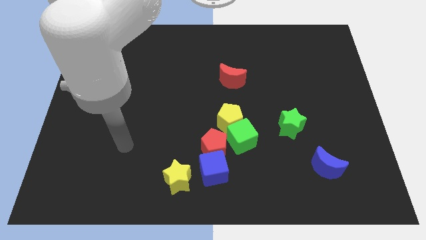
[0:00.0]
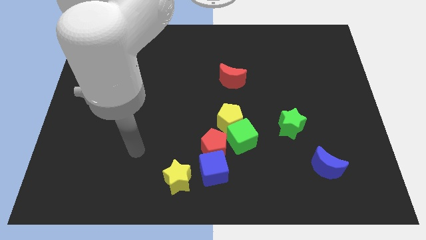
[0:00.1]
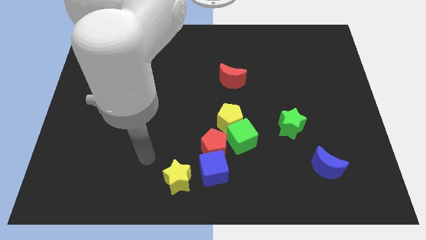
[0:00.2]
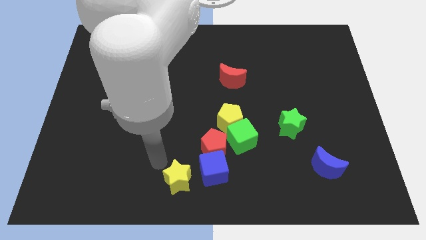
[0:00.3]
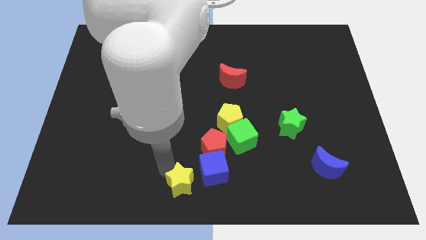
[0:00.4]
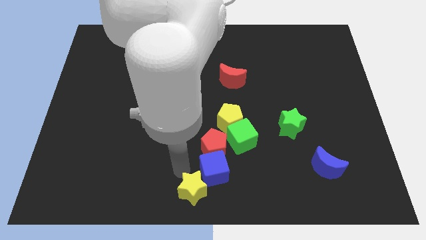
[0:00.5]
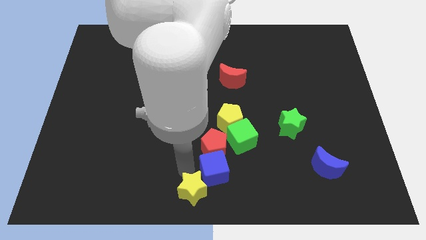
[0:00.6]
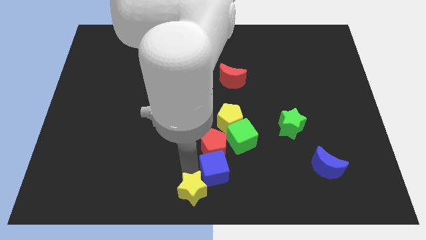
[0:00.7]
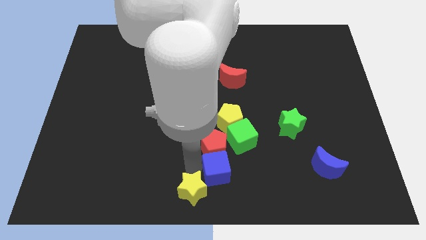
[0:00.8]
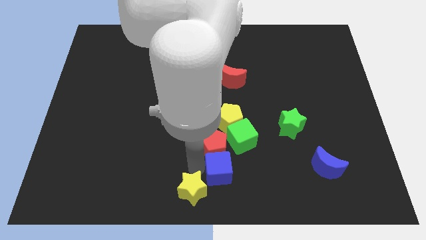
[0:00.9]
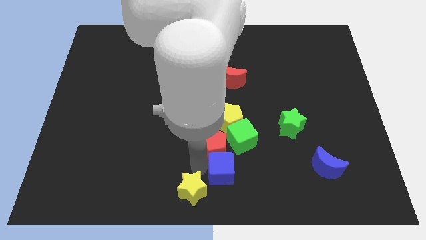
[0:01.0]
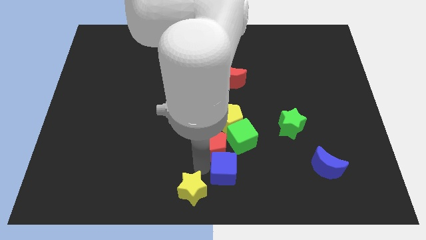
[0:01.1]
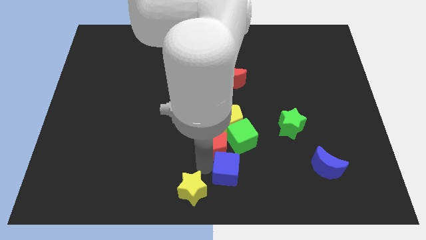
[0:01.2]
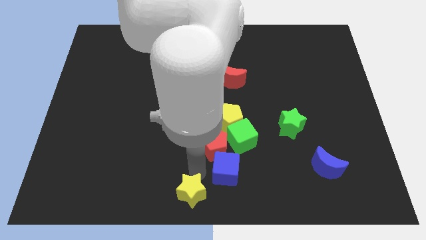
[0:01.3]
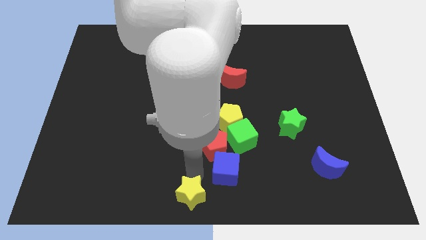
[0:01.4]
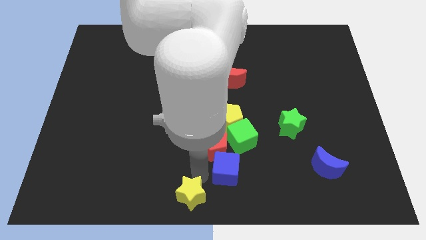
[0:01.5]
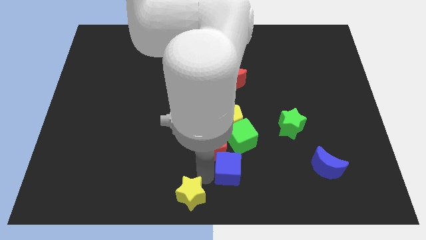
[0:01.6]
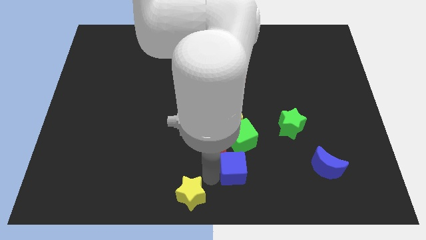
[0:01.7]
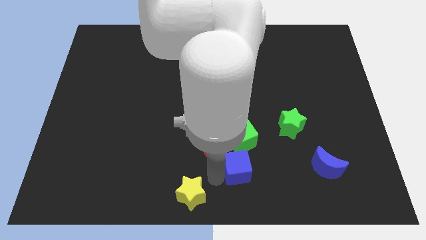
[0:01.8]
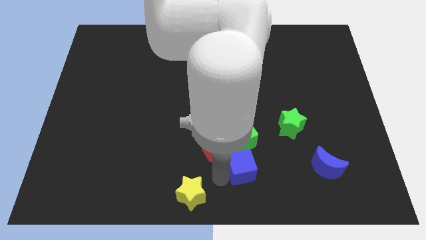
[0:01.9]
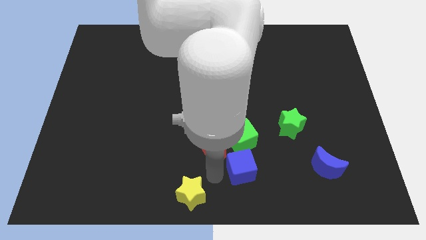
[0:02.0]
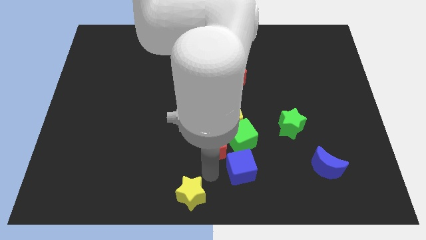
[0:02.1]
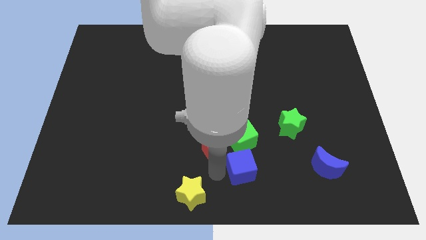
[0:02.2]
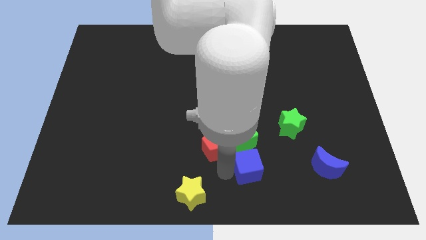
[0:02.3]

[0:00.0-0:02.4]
push the blue cube somewhat to the right

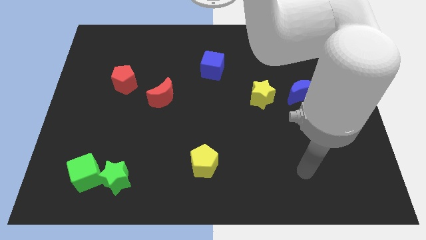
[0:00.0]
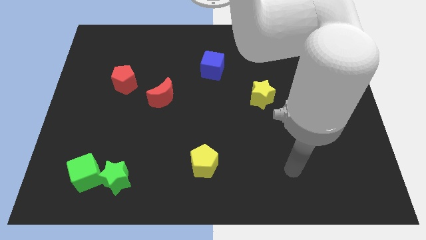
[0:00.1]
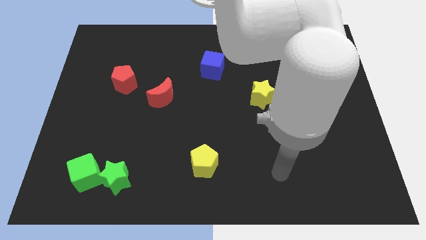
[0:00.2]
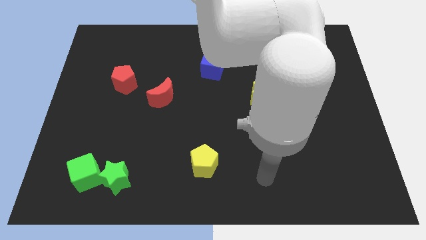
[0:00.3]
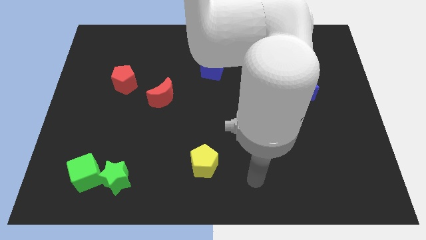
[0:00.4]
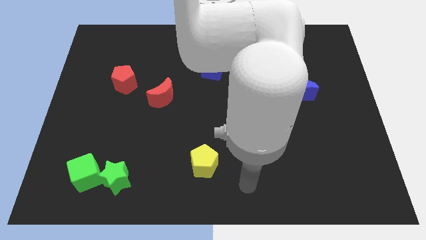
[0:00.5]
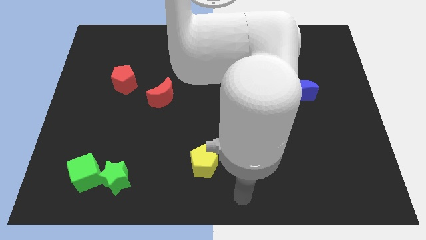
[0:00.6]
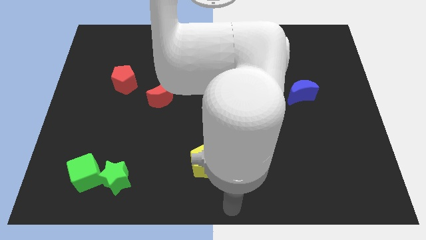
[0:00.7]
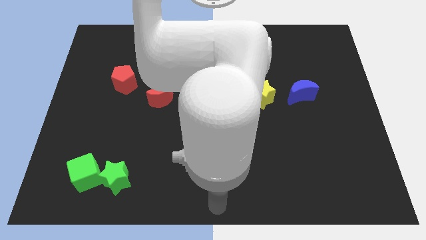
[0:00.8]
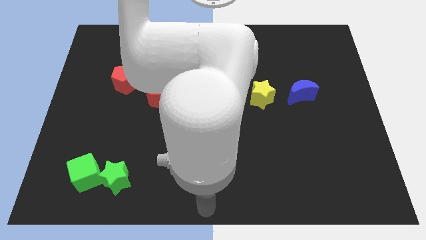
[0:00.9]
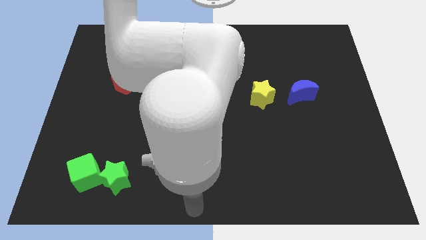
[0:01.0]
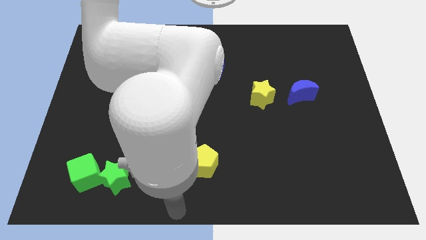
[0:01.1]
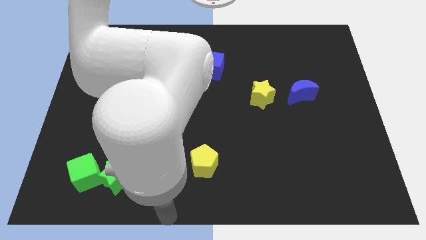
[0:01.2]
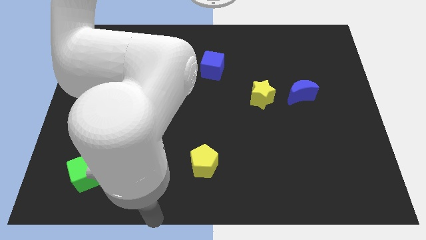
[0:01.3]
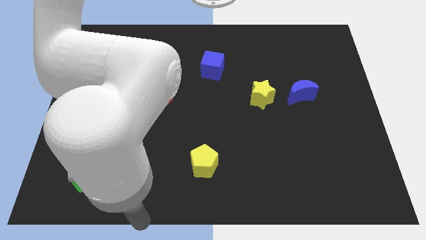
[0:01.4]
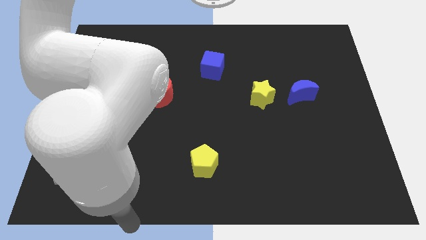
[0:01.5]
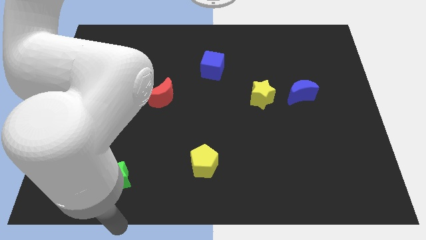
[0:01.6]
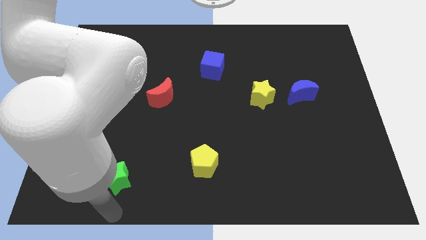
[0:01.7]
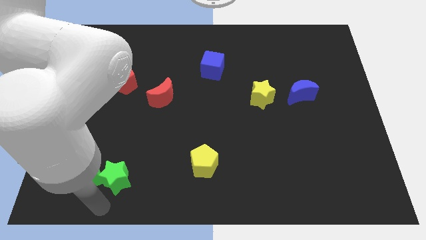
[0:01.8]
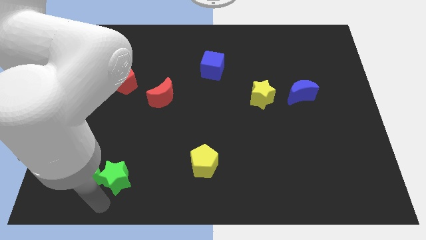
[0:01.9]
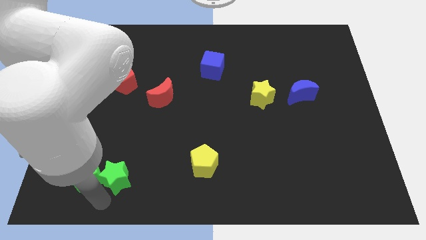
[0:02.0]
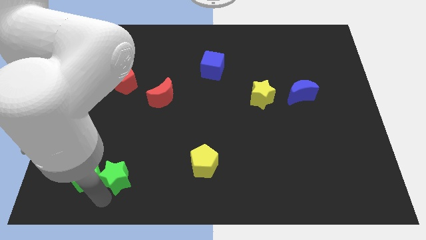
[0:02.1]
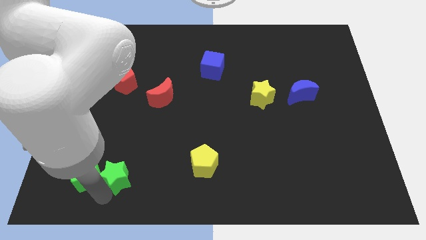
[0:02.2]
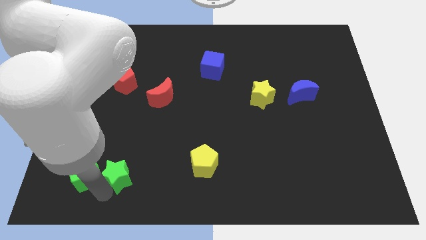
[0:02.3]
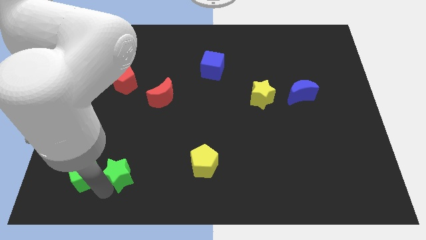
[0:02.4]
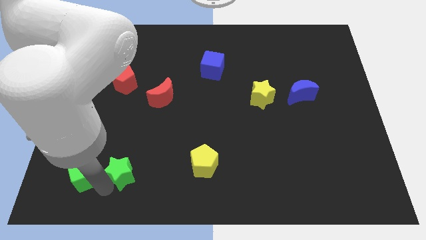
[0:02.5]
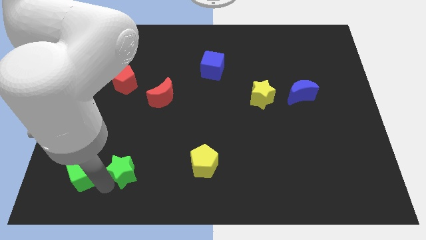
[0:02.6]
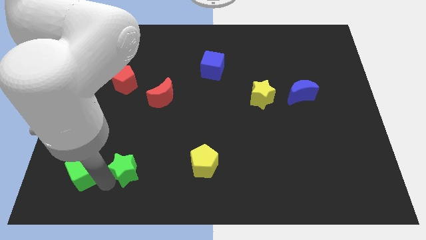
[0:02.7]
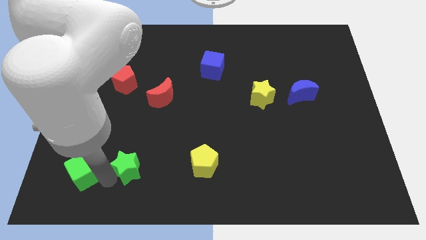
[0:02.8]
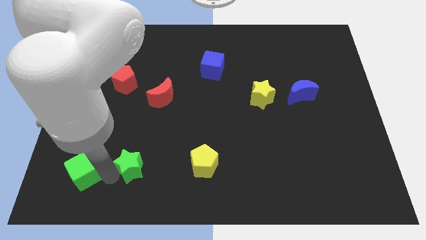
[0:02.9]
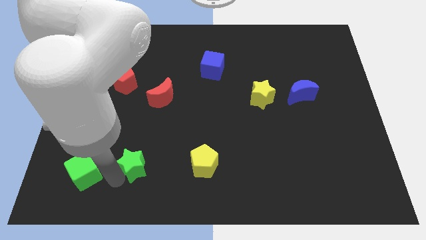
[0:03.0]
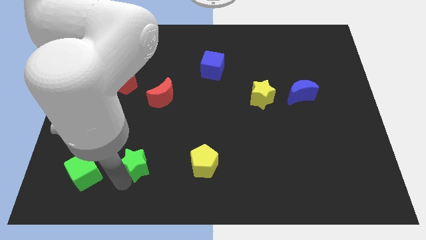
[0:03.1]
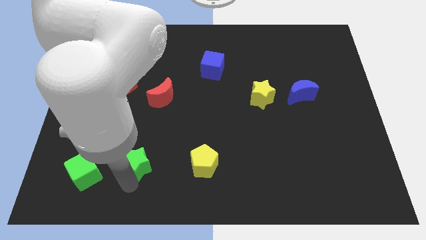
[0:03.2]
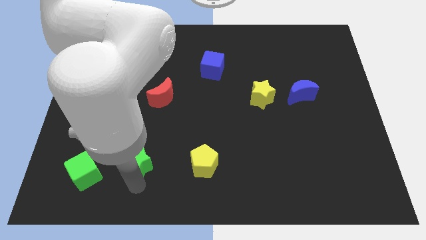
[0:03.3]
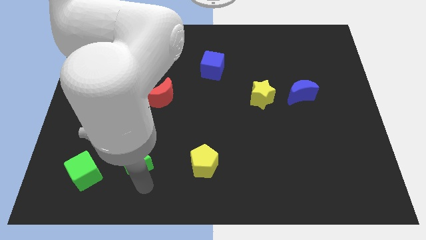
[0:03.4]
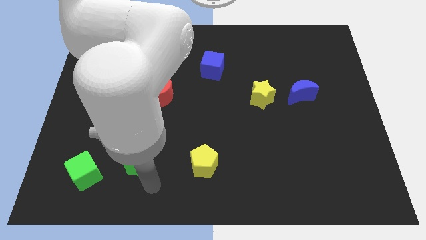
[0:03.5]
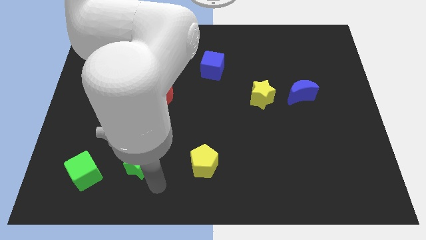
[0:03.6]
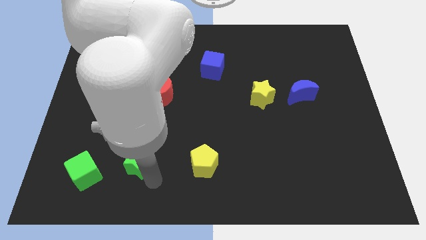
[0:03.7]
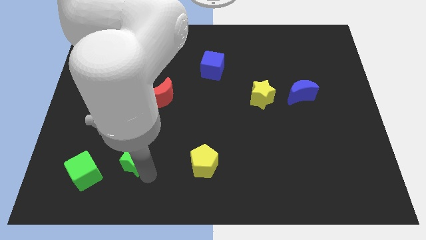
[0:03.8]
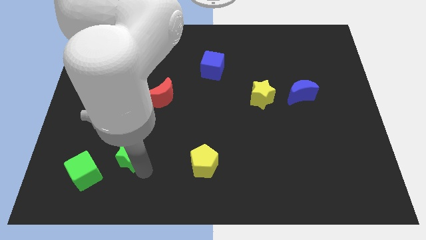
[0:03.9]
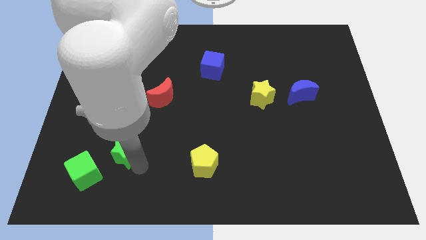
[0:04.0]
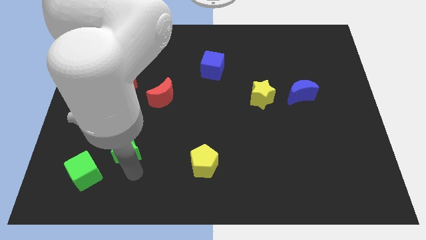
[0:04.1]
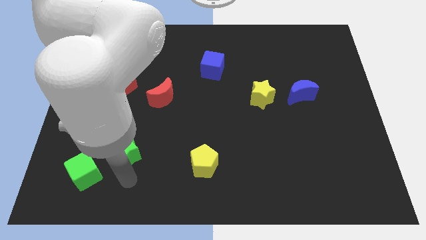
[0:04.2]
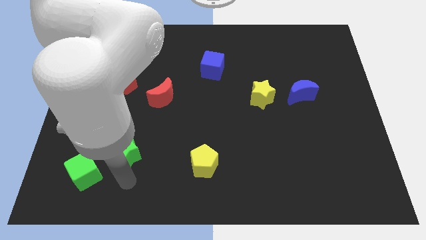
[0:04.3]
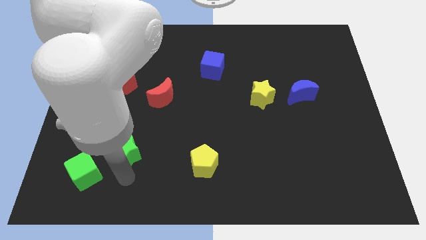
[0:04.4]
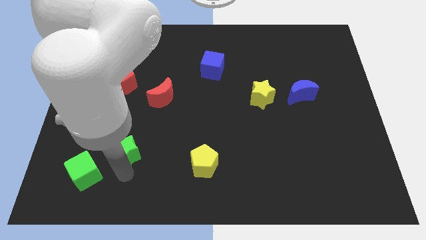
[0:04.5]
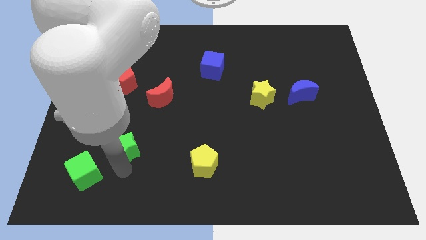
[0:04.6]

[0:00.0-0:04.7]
slide the green star up a little bit

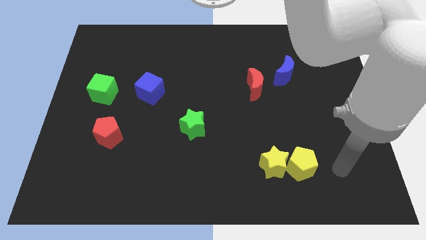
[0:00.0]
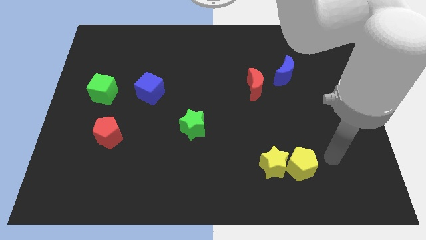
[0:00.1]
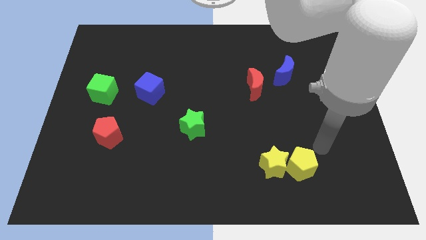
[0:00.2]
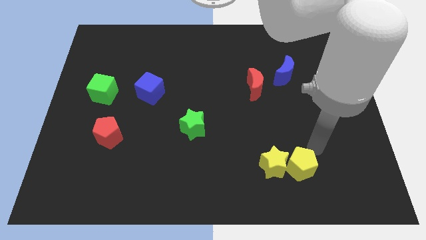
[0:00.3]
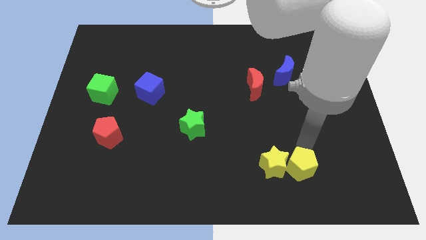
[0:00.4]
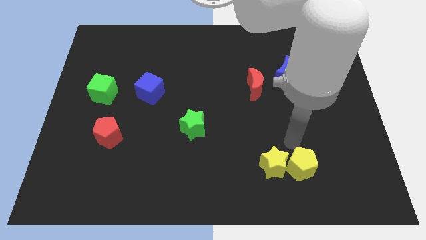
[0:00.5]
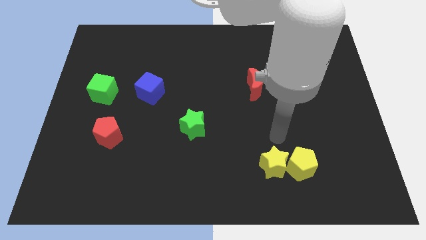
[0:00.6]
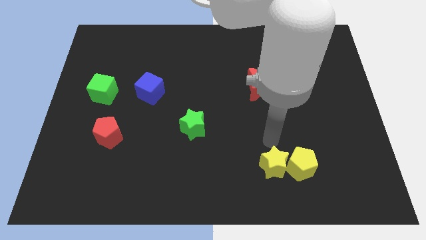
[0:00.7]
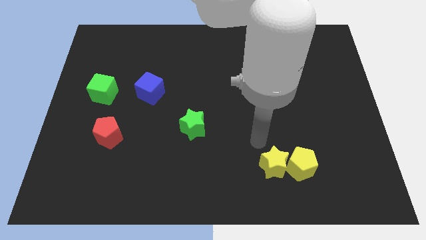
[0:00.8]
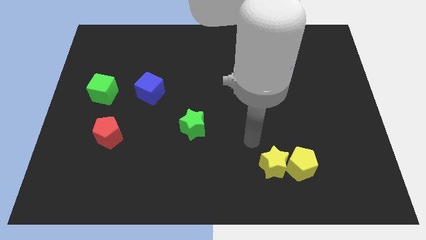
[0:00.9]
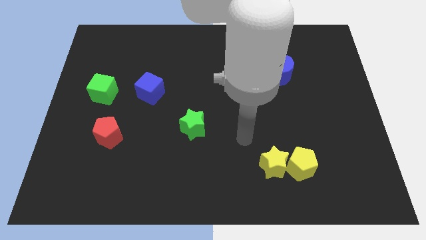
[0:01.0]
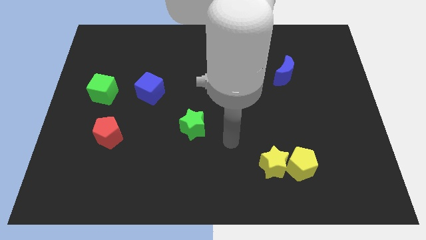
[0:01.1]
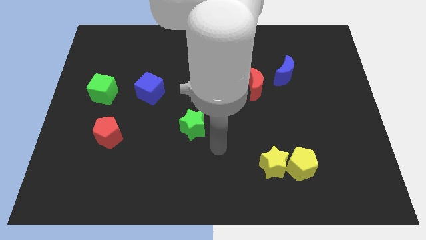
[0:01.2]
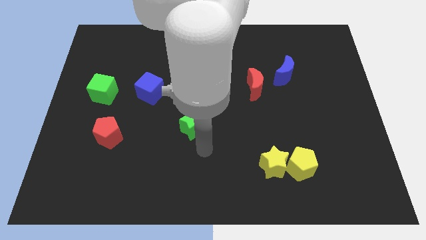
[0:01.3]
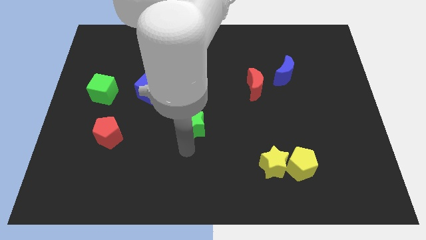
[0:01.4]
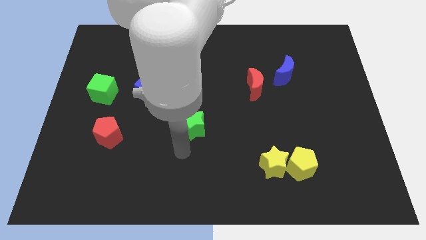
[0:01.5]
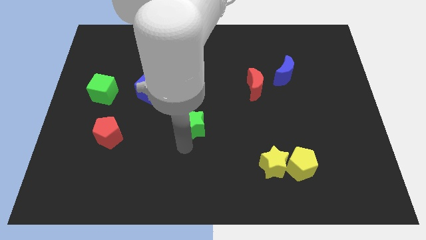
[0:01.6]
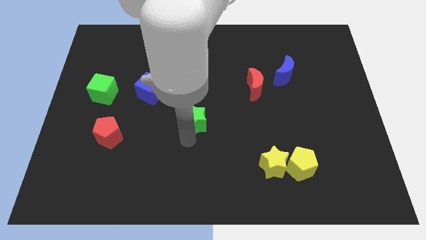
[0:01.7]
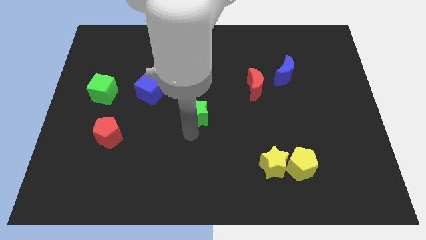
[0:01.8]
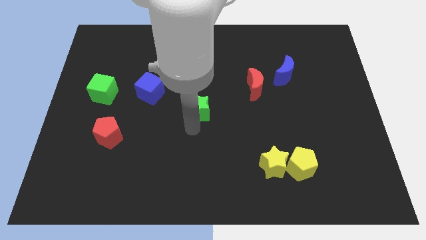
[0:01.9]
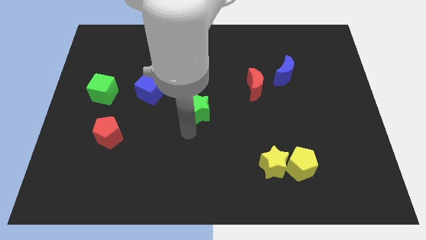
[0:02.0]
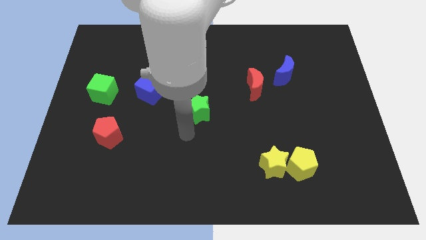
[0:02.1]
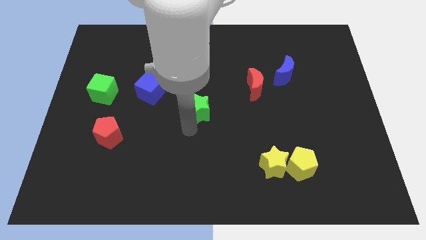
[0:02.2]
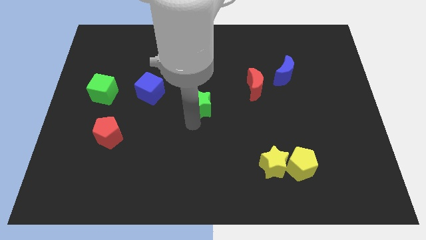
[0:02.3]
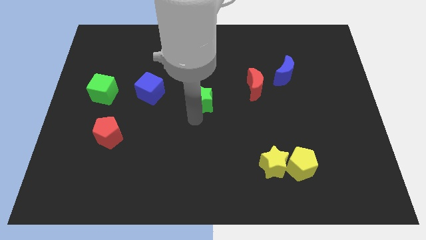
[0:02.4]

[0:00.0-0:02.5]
move the green star upwards a bit
